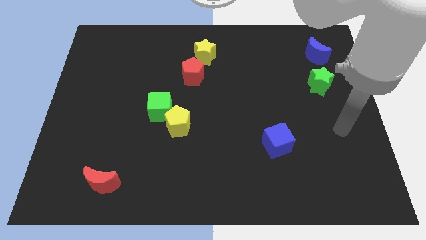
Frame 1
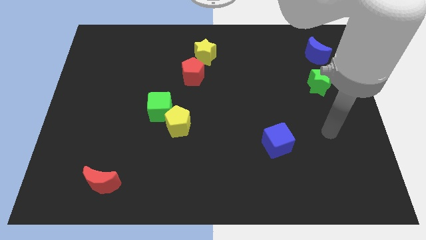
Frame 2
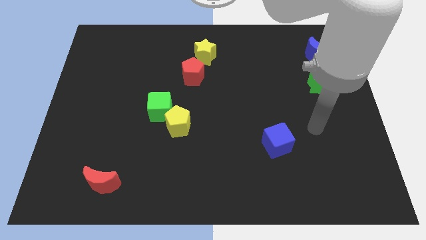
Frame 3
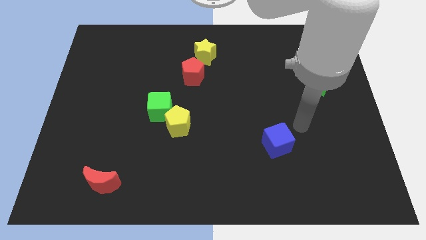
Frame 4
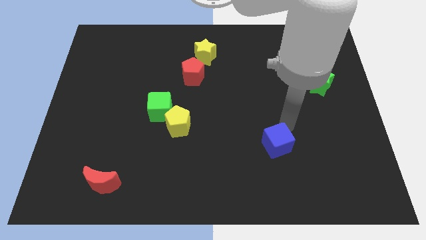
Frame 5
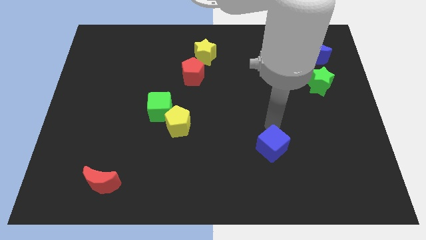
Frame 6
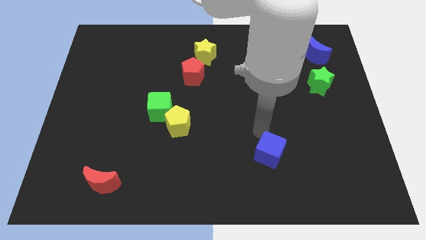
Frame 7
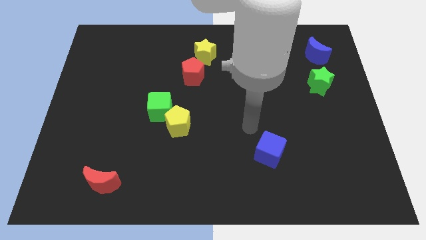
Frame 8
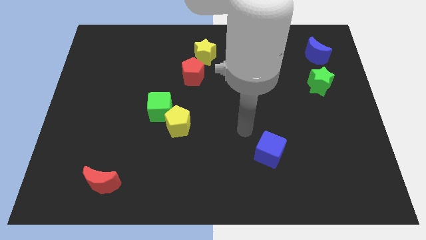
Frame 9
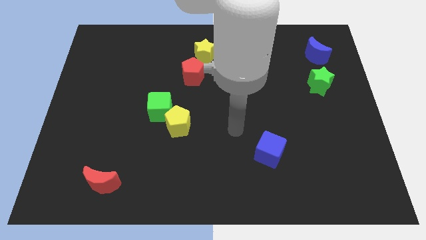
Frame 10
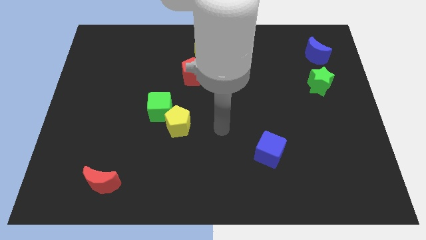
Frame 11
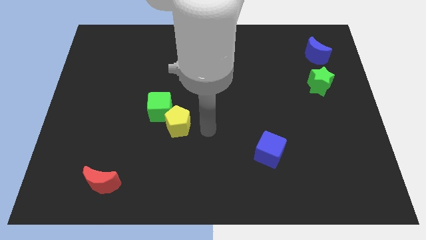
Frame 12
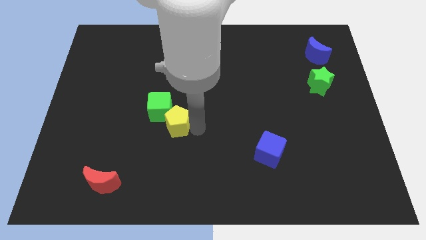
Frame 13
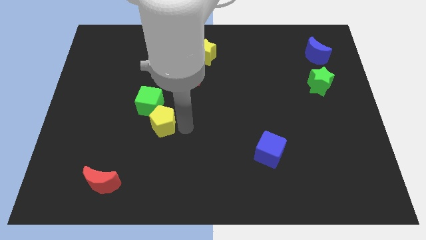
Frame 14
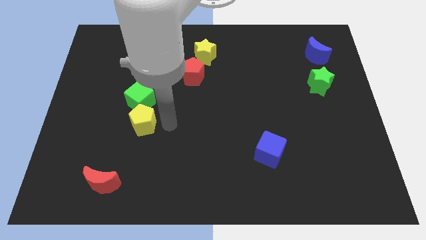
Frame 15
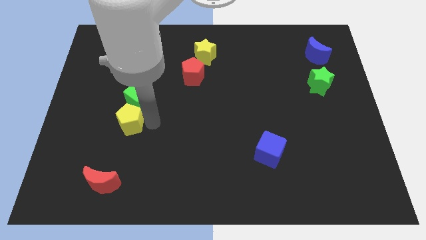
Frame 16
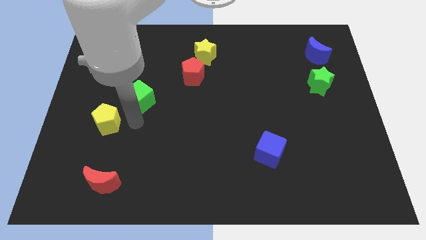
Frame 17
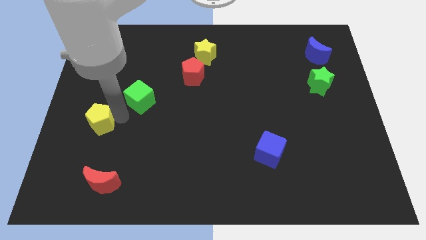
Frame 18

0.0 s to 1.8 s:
move the green cube away from the yellow pentagon

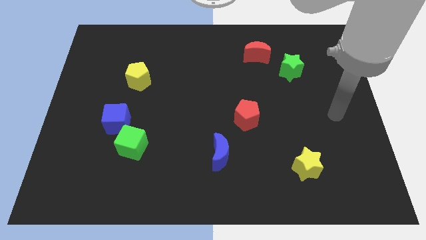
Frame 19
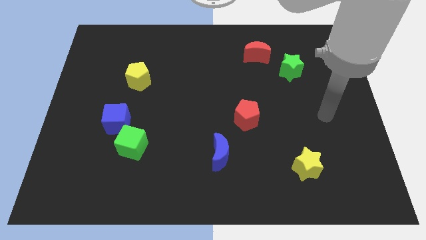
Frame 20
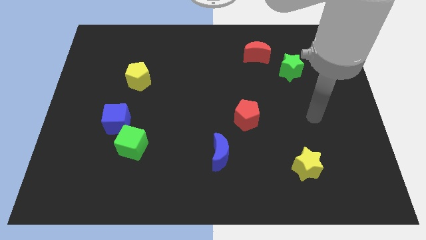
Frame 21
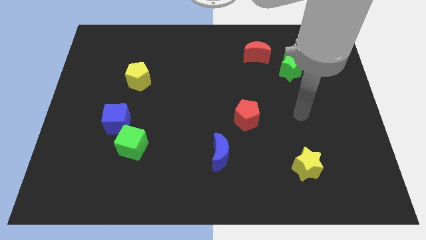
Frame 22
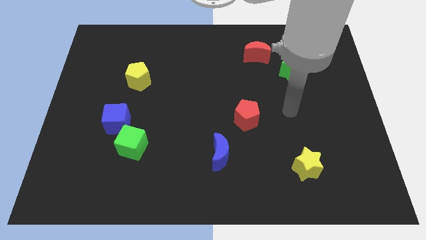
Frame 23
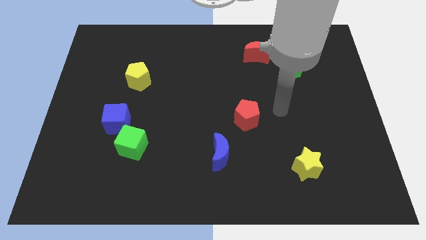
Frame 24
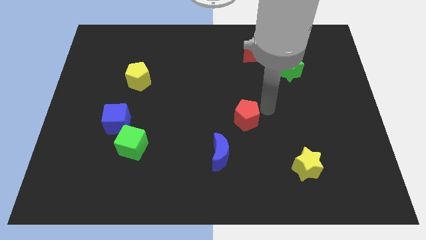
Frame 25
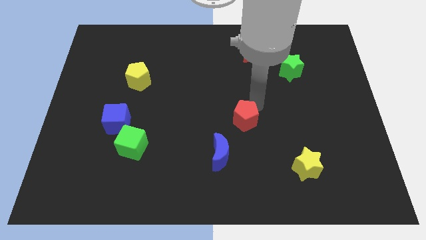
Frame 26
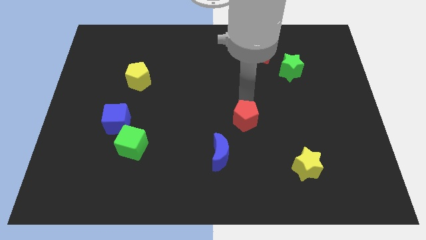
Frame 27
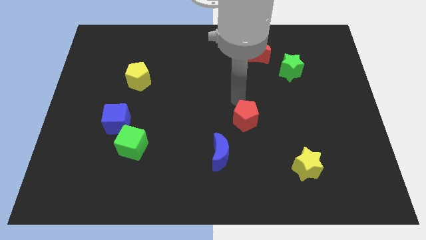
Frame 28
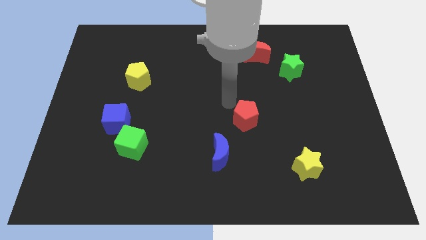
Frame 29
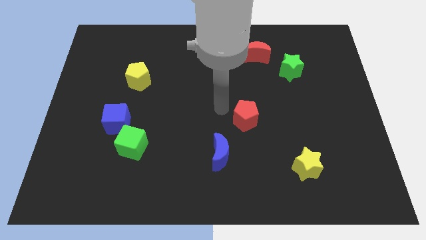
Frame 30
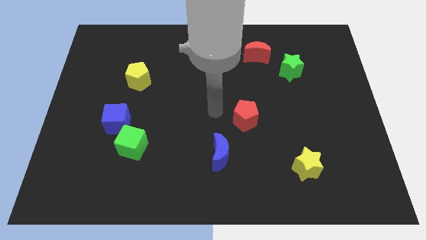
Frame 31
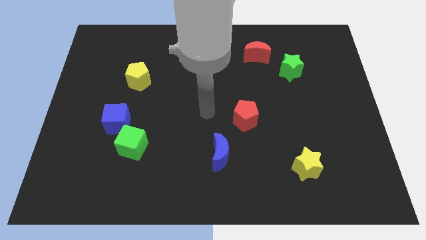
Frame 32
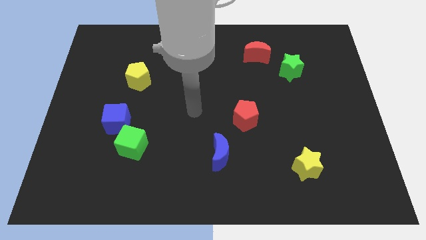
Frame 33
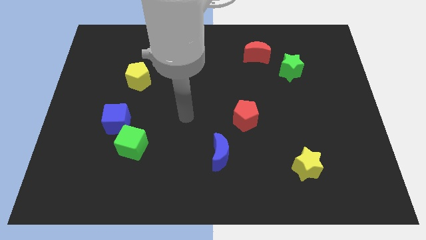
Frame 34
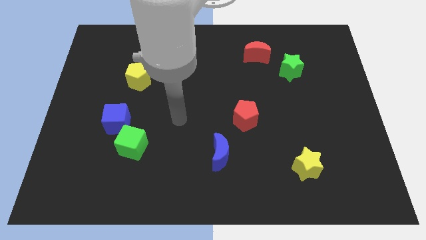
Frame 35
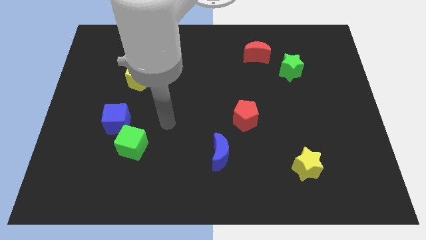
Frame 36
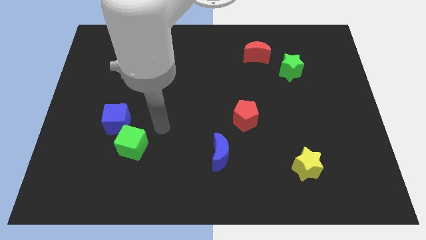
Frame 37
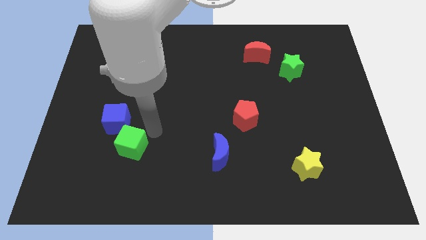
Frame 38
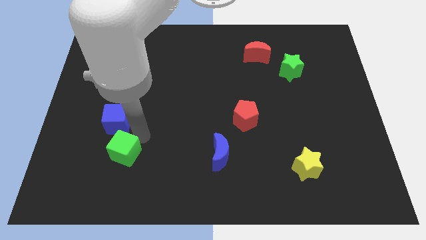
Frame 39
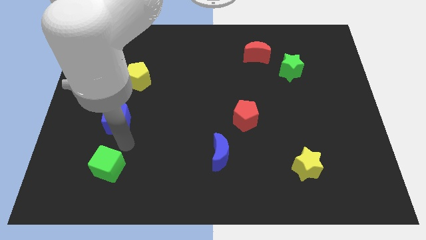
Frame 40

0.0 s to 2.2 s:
move the blue cube away from the green cube

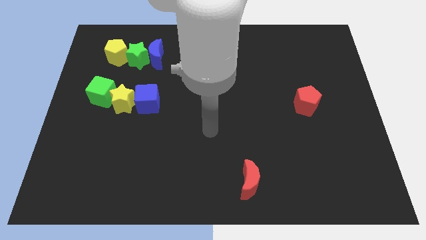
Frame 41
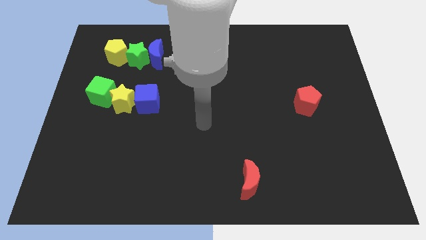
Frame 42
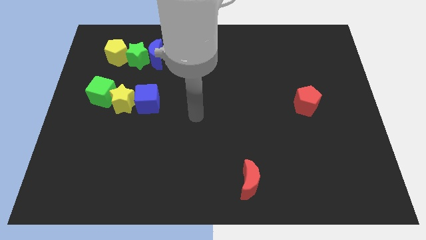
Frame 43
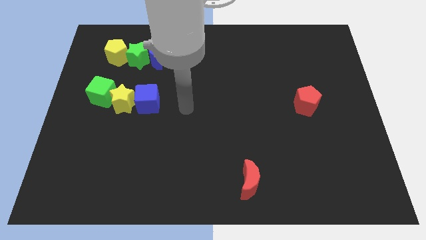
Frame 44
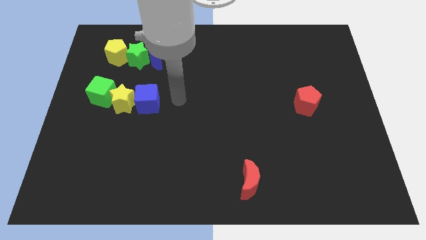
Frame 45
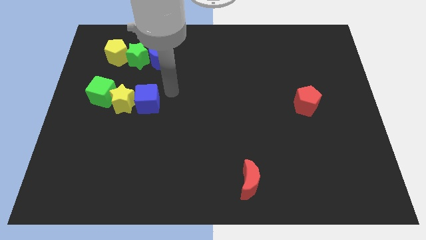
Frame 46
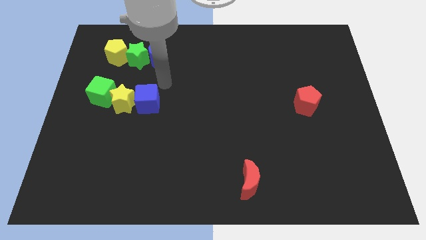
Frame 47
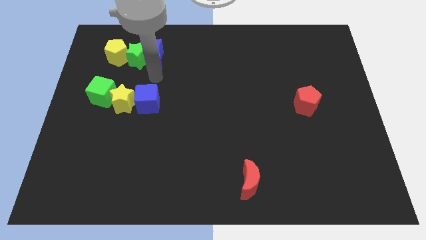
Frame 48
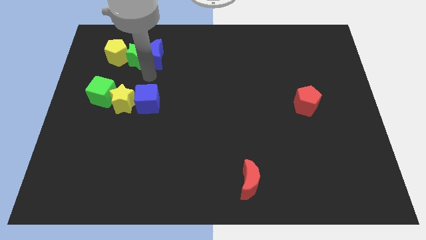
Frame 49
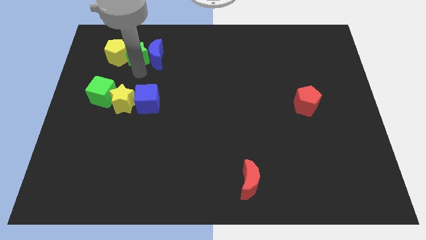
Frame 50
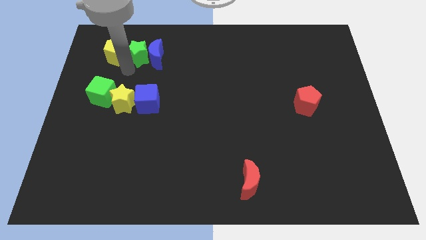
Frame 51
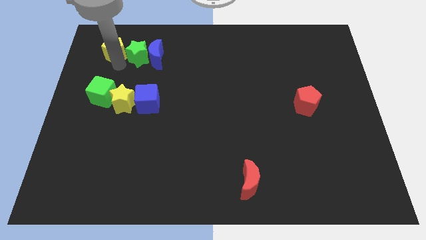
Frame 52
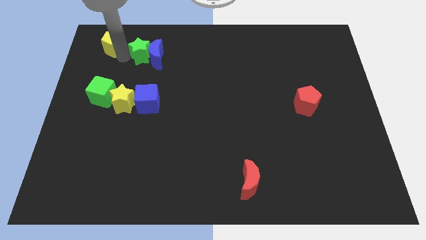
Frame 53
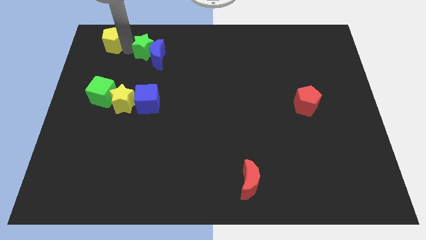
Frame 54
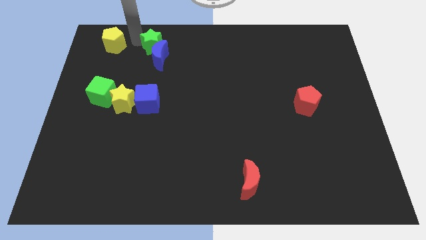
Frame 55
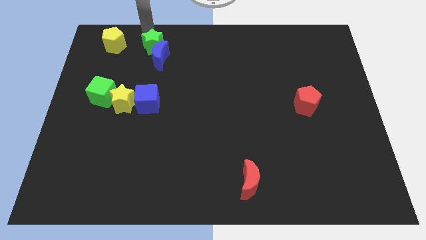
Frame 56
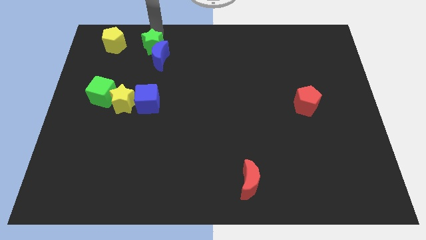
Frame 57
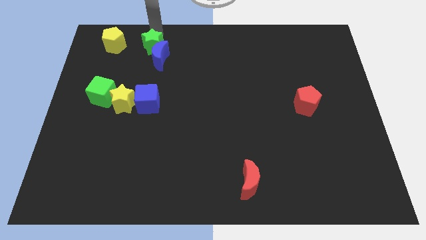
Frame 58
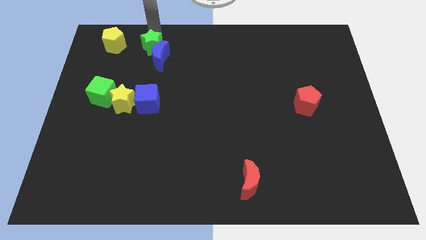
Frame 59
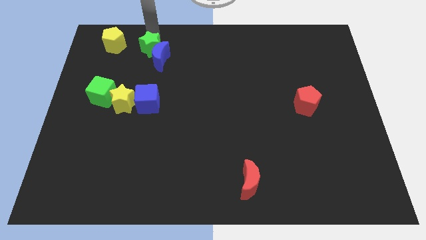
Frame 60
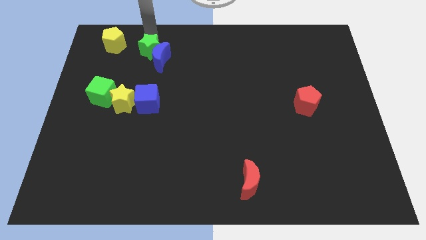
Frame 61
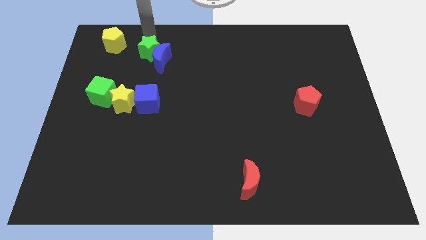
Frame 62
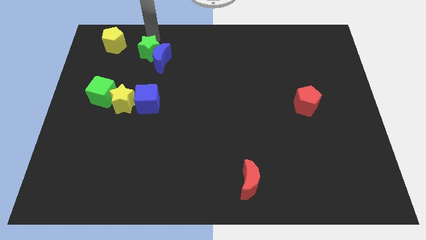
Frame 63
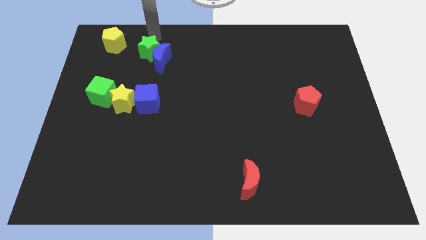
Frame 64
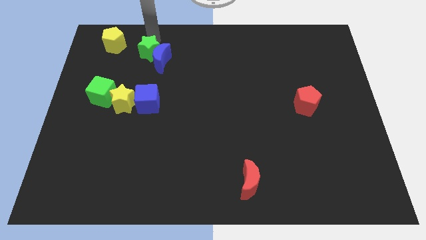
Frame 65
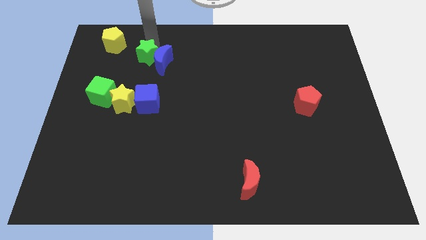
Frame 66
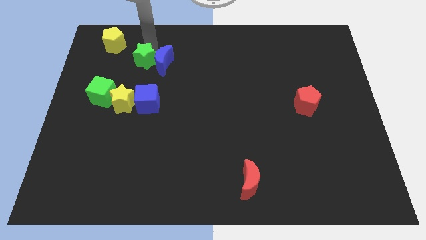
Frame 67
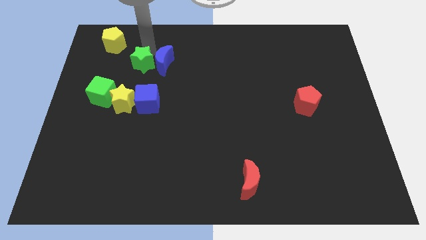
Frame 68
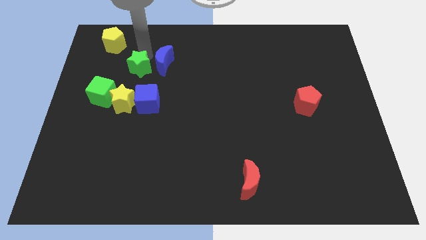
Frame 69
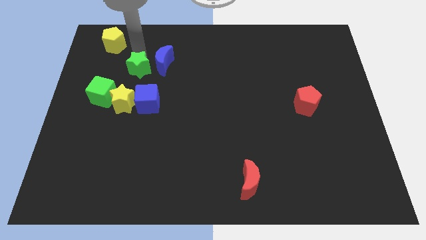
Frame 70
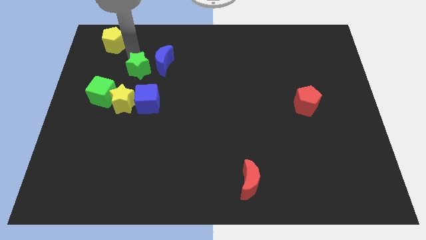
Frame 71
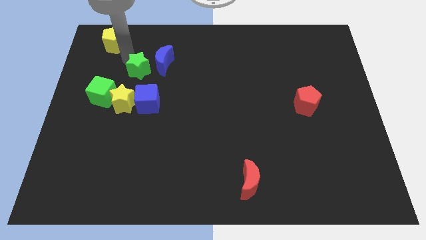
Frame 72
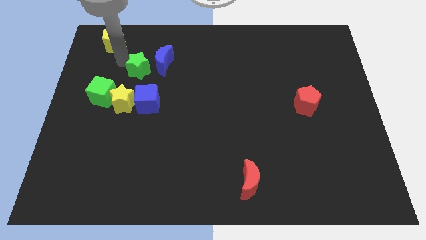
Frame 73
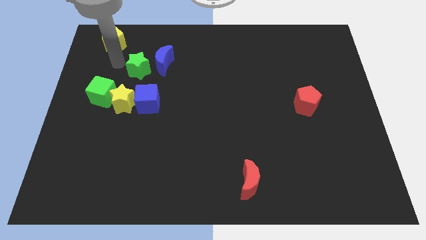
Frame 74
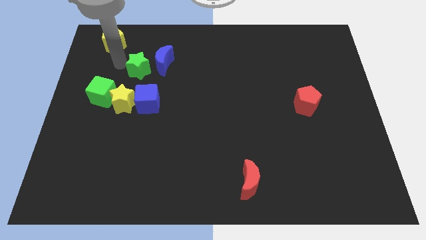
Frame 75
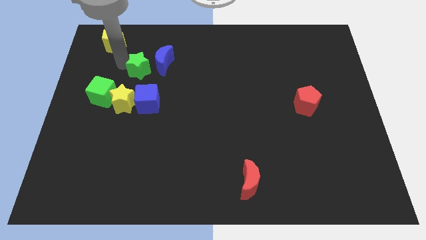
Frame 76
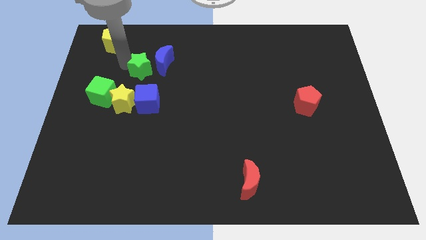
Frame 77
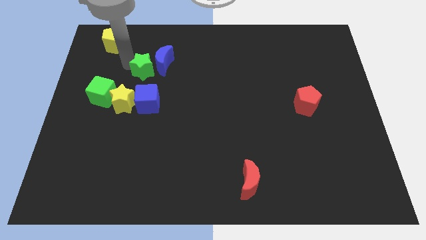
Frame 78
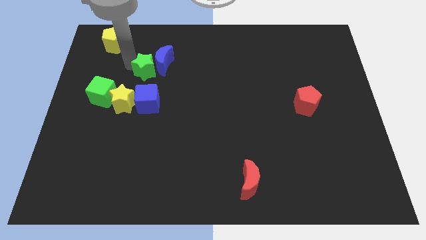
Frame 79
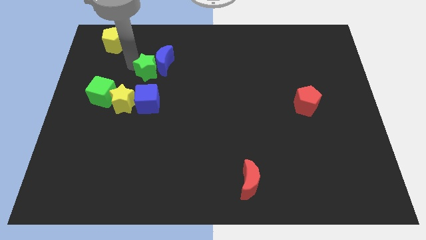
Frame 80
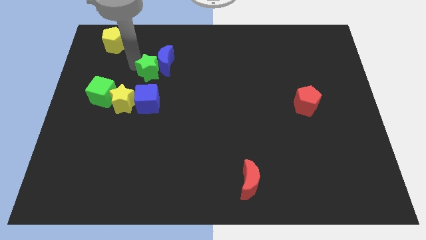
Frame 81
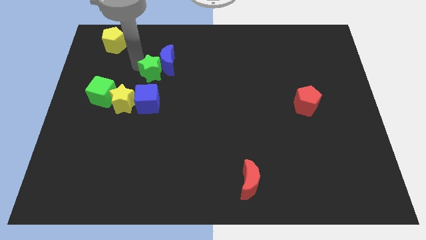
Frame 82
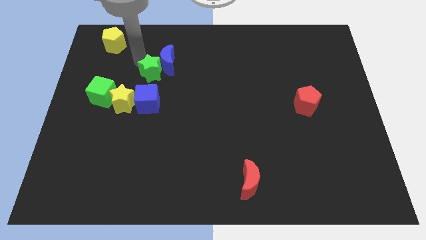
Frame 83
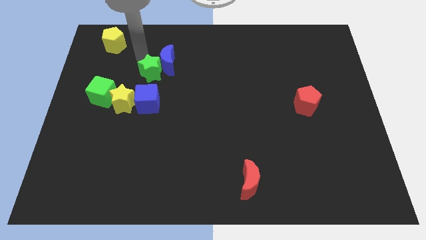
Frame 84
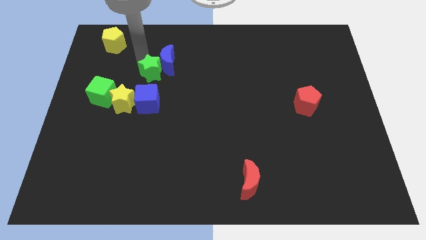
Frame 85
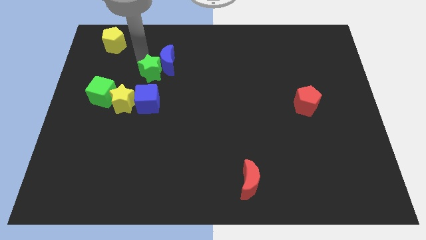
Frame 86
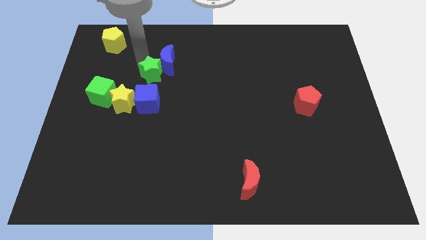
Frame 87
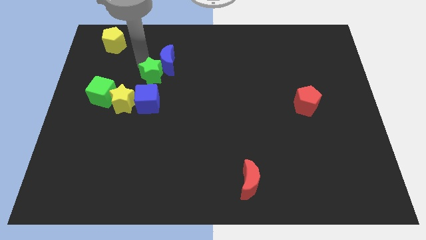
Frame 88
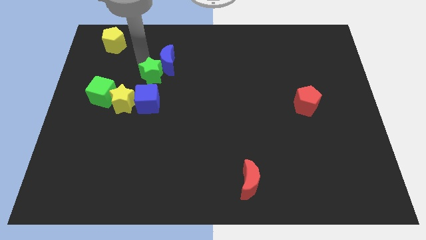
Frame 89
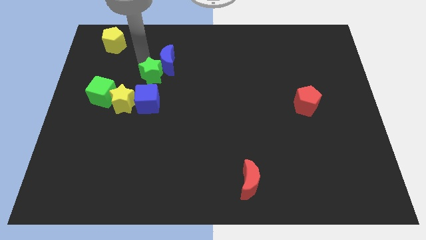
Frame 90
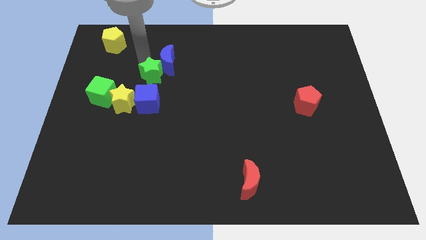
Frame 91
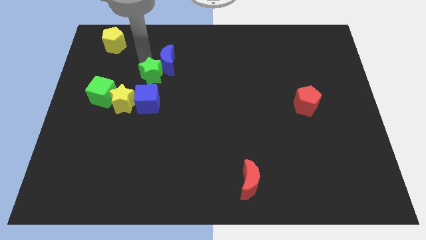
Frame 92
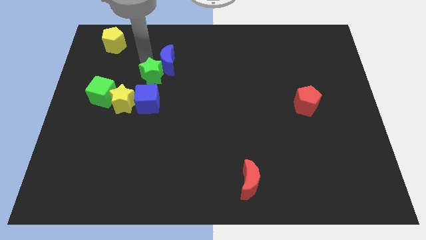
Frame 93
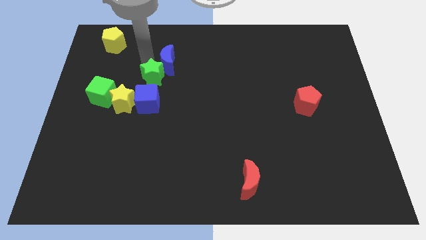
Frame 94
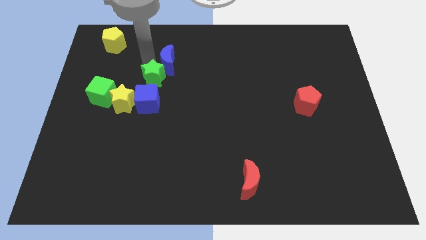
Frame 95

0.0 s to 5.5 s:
move the green star away from the blue moon and yellow pentagon
